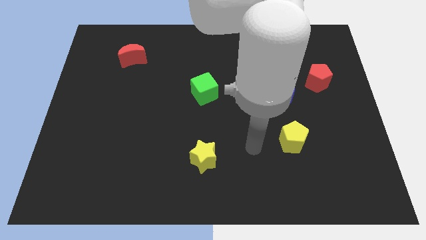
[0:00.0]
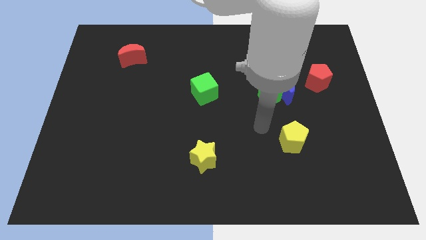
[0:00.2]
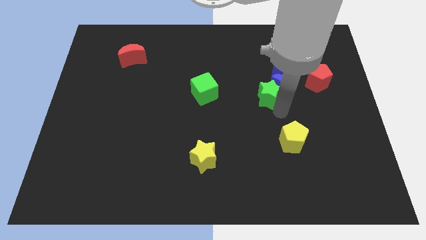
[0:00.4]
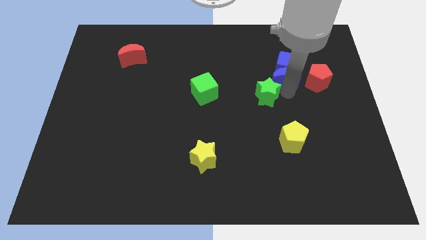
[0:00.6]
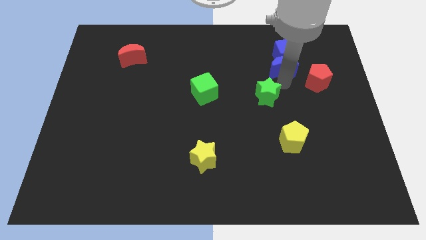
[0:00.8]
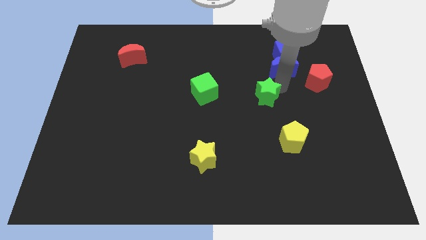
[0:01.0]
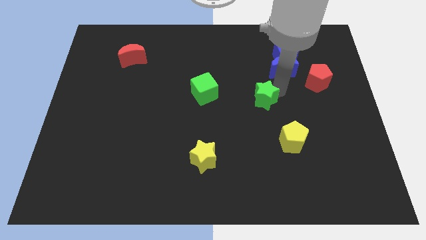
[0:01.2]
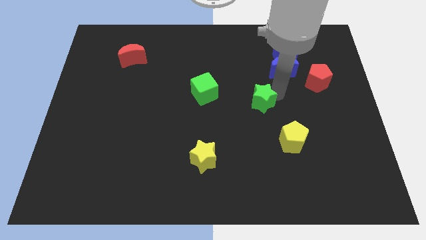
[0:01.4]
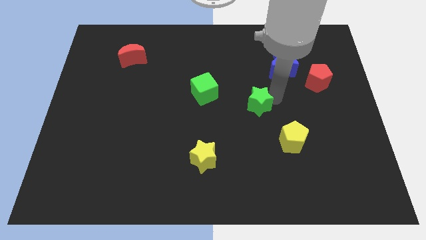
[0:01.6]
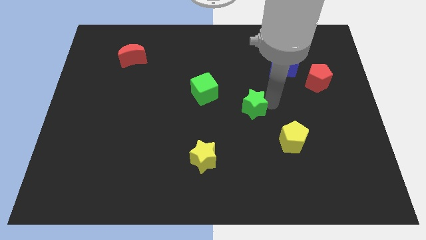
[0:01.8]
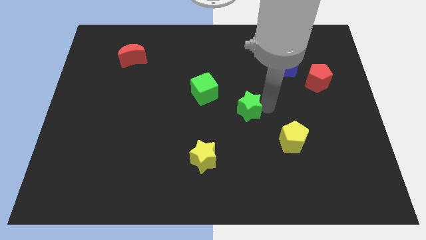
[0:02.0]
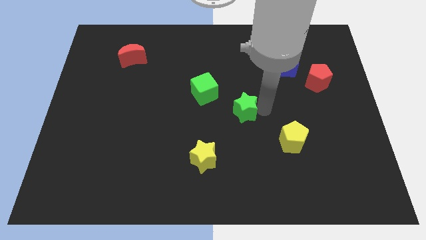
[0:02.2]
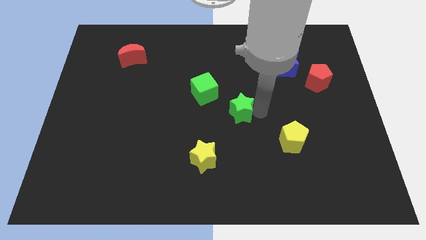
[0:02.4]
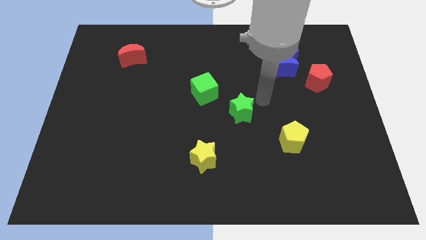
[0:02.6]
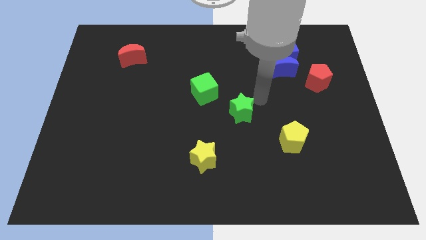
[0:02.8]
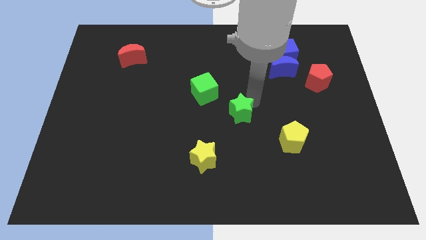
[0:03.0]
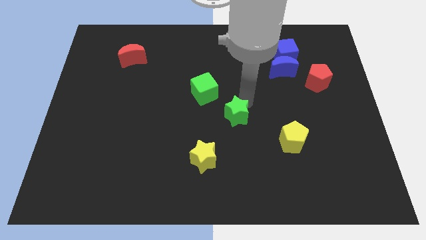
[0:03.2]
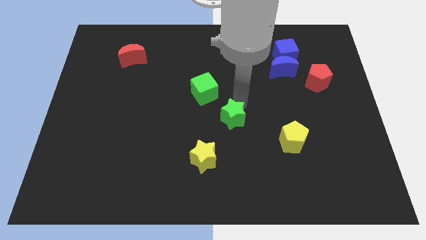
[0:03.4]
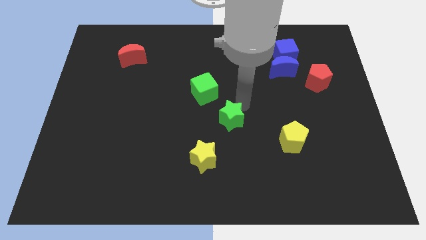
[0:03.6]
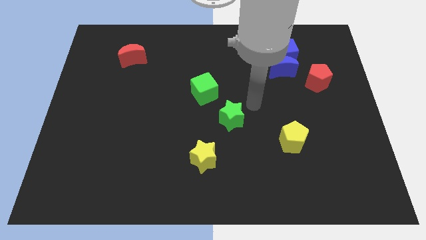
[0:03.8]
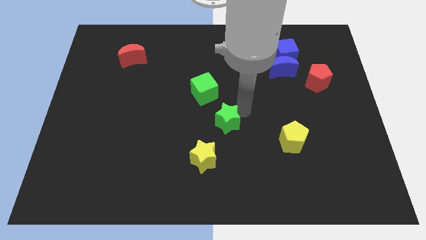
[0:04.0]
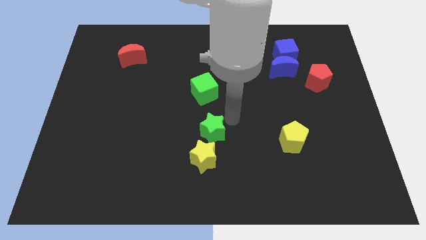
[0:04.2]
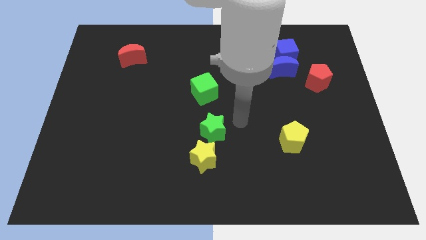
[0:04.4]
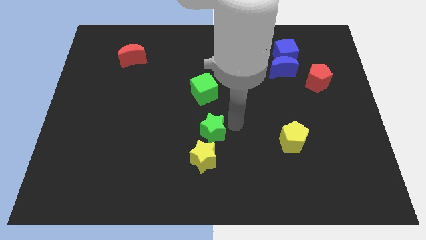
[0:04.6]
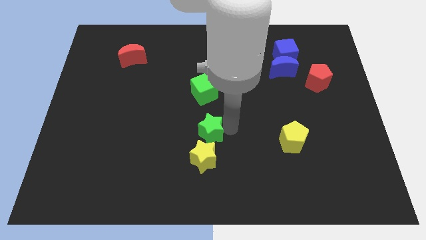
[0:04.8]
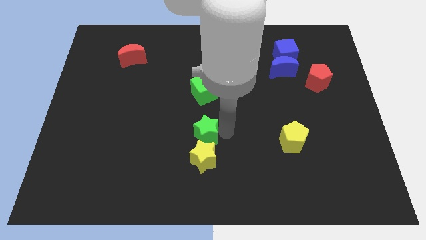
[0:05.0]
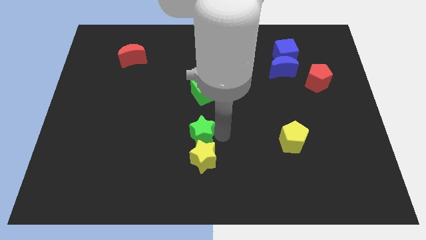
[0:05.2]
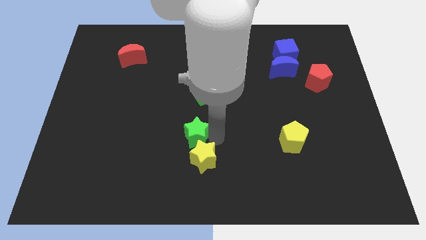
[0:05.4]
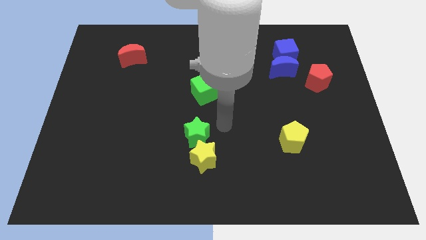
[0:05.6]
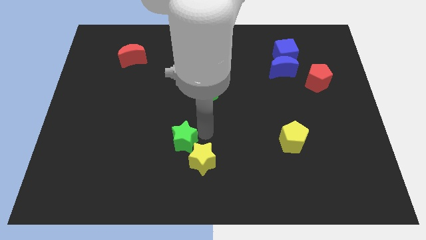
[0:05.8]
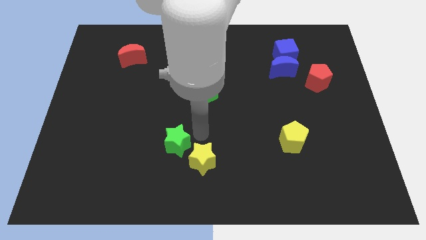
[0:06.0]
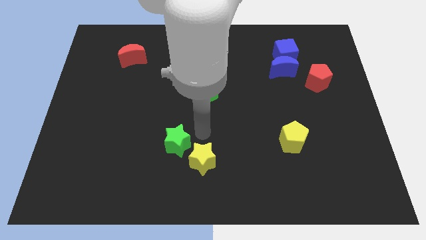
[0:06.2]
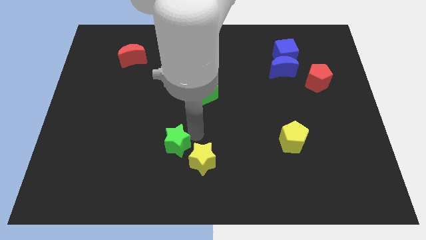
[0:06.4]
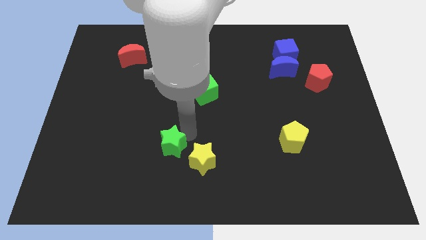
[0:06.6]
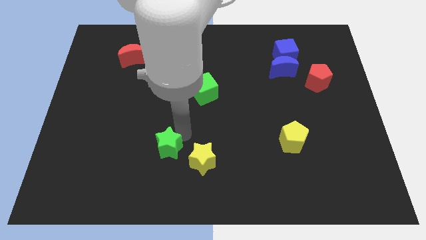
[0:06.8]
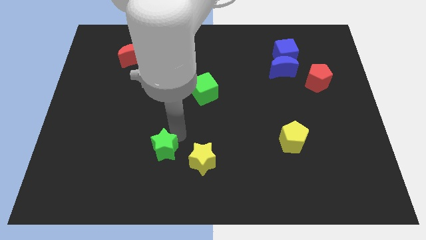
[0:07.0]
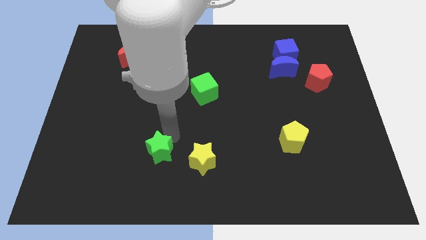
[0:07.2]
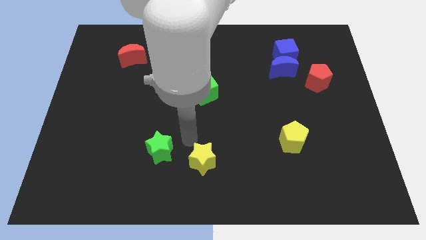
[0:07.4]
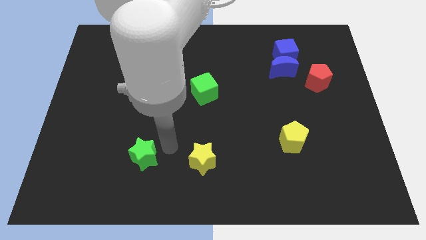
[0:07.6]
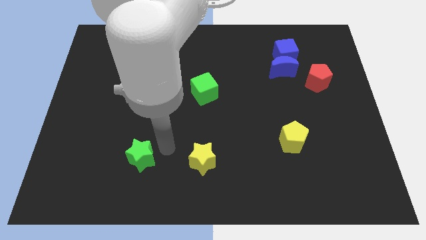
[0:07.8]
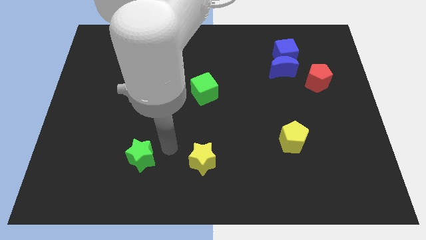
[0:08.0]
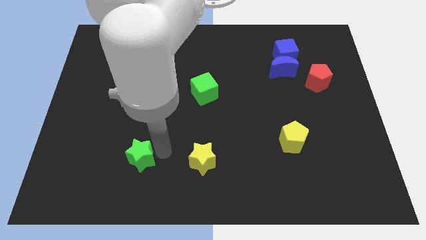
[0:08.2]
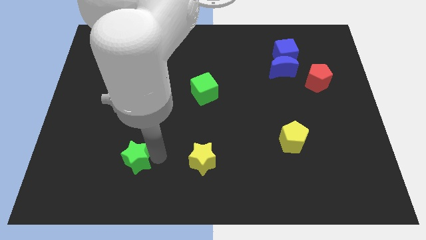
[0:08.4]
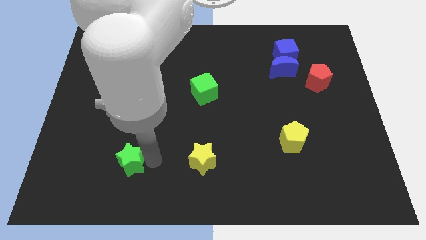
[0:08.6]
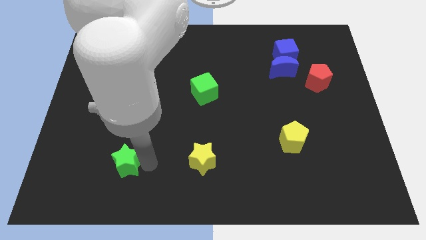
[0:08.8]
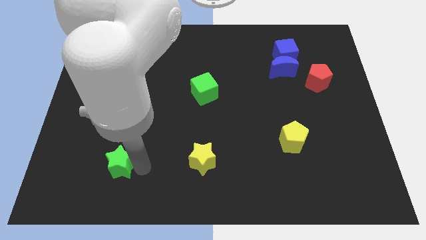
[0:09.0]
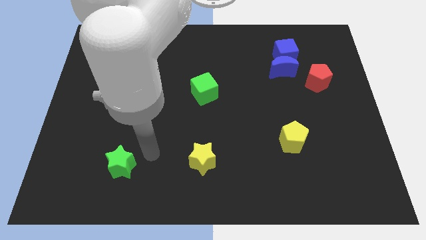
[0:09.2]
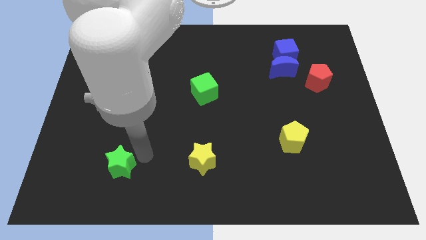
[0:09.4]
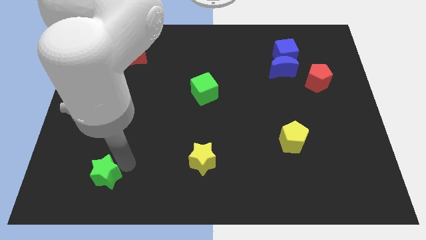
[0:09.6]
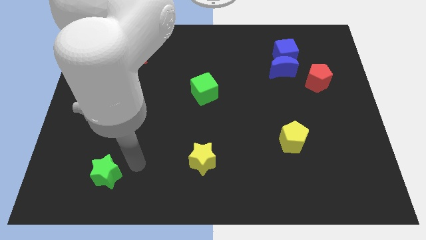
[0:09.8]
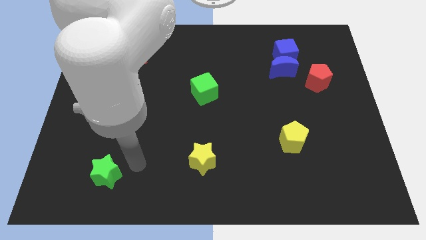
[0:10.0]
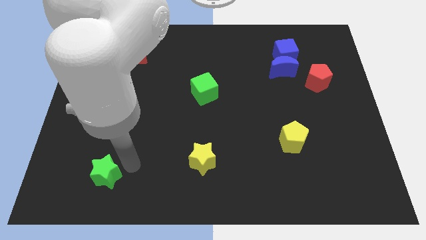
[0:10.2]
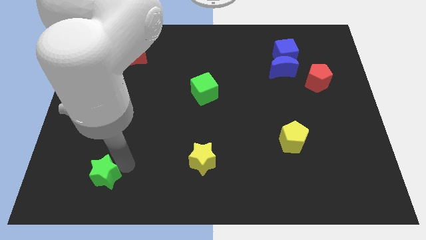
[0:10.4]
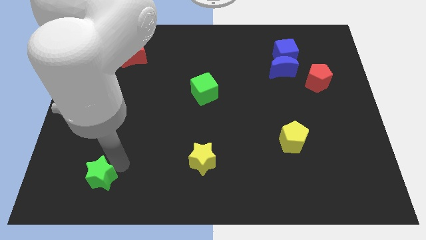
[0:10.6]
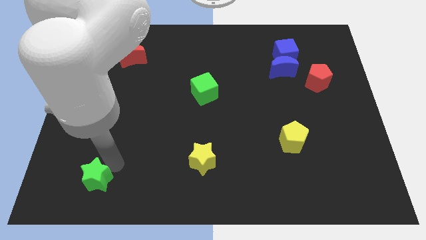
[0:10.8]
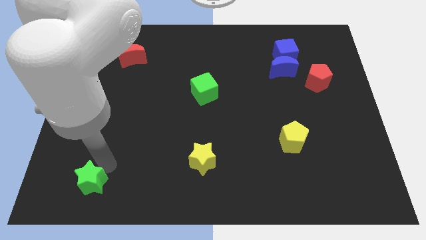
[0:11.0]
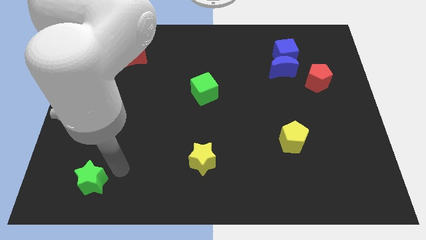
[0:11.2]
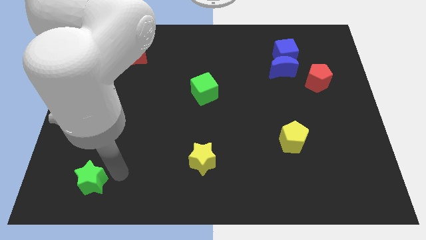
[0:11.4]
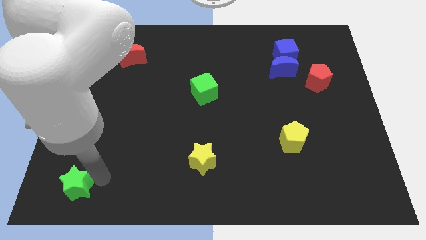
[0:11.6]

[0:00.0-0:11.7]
push the green star to the bottom left of the board

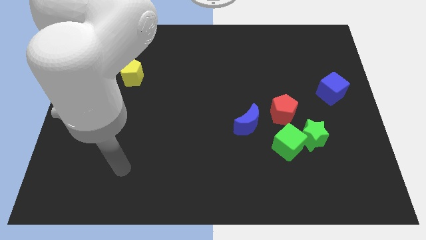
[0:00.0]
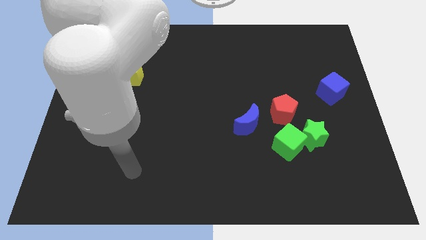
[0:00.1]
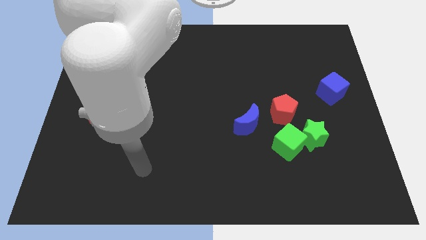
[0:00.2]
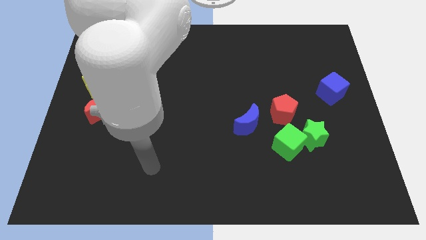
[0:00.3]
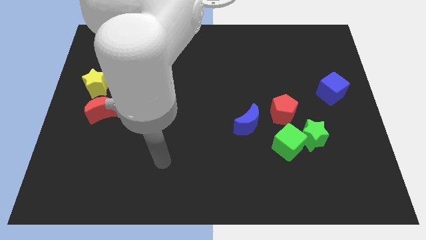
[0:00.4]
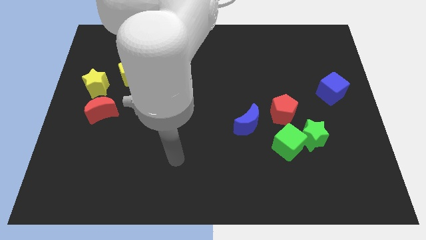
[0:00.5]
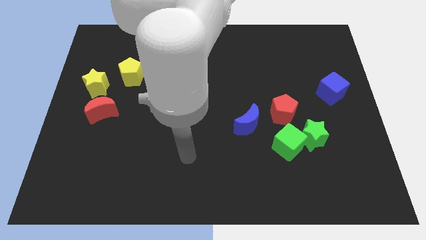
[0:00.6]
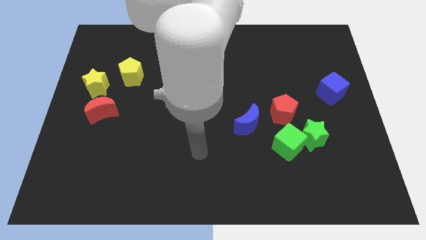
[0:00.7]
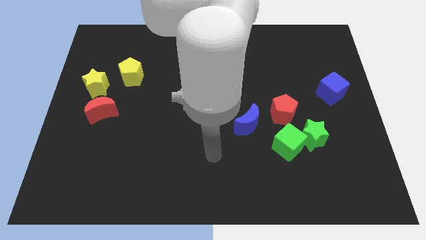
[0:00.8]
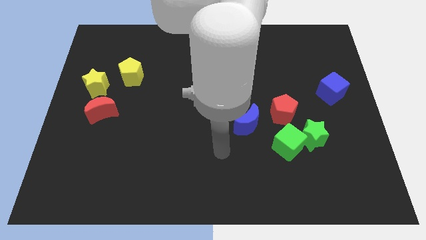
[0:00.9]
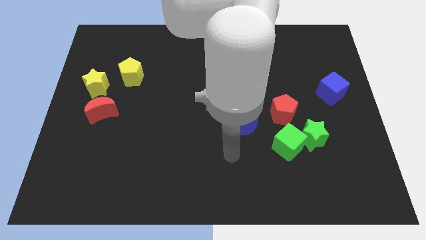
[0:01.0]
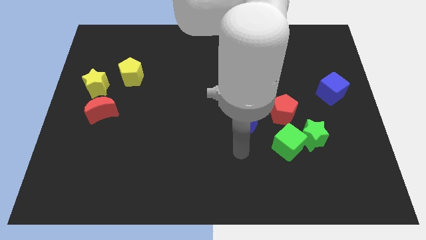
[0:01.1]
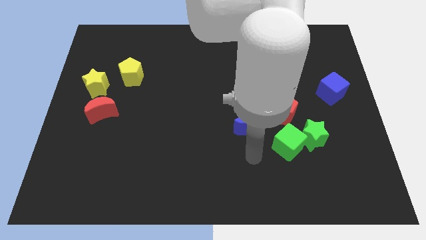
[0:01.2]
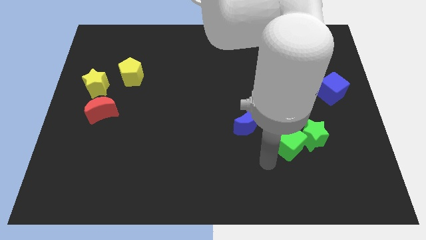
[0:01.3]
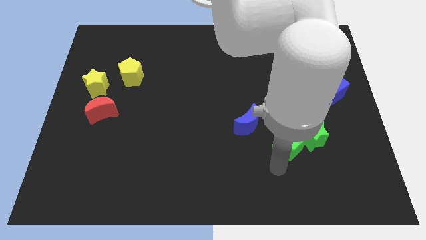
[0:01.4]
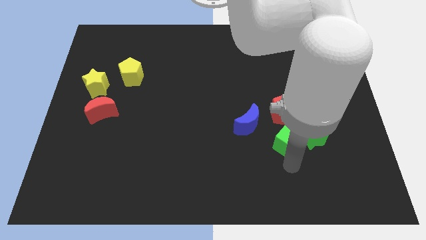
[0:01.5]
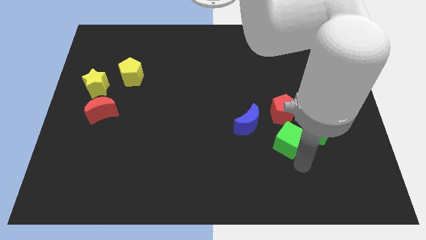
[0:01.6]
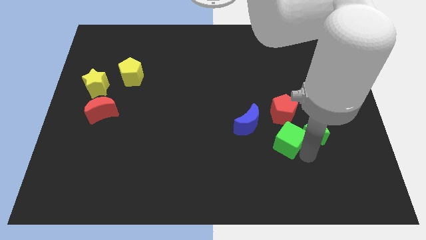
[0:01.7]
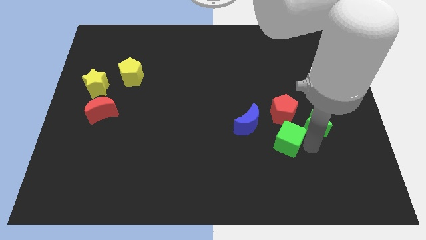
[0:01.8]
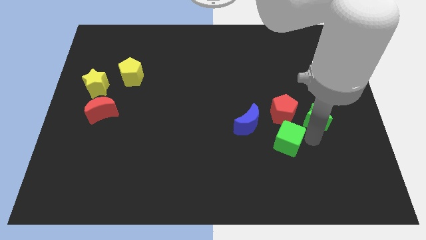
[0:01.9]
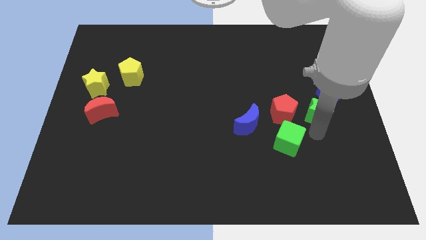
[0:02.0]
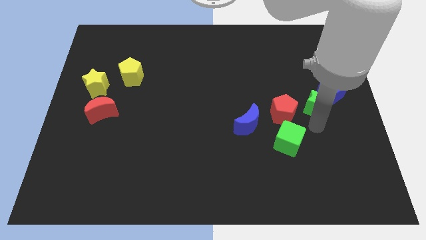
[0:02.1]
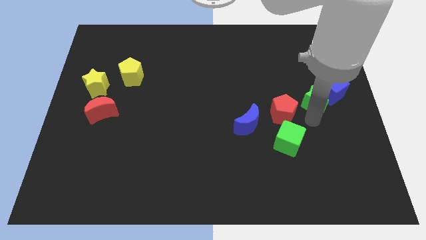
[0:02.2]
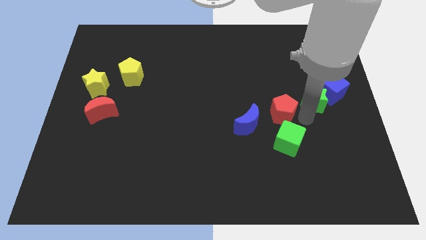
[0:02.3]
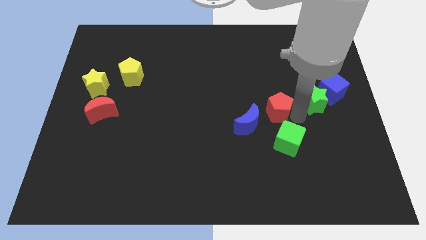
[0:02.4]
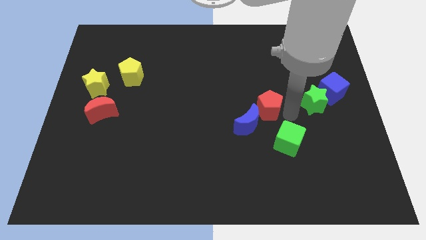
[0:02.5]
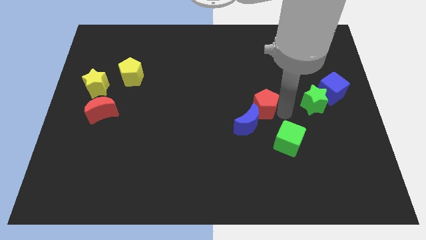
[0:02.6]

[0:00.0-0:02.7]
move the red pentagon to the center
